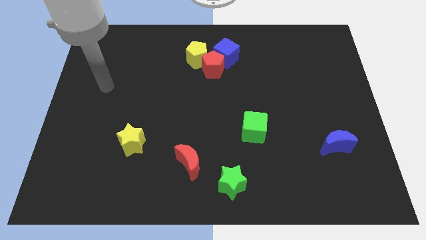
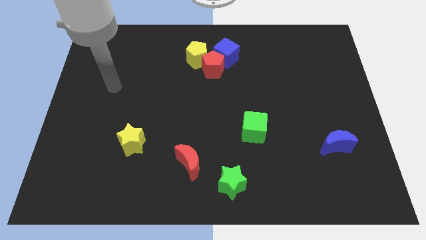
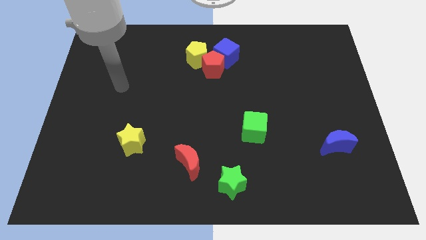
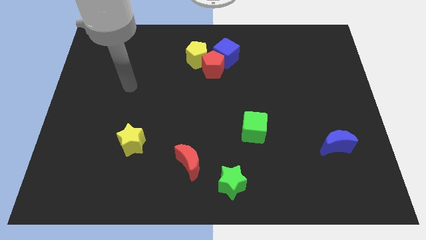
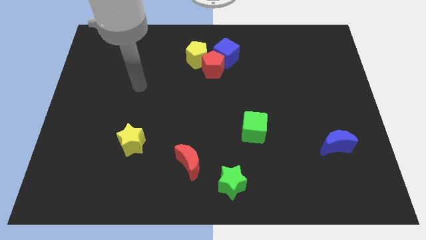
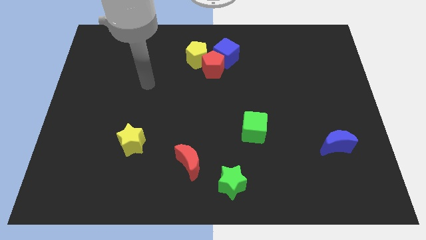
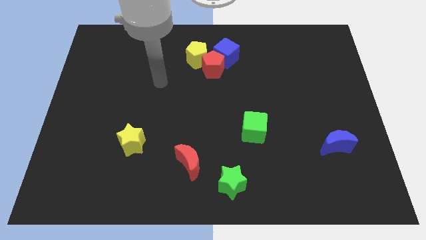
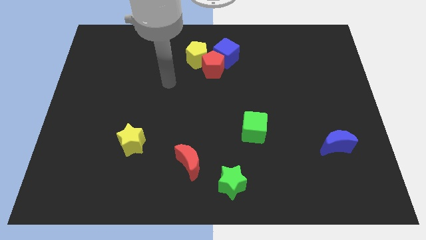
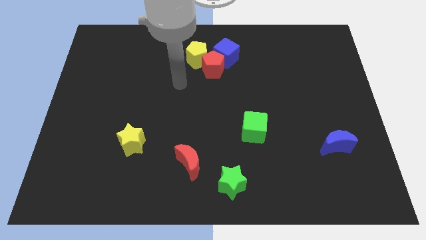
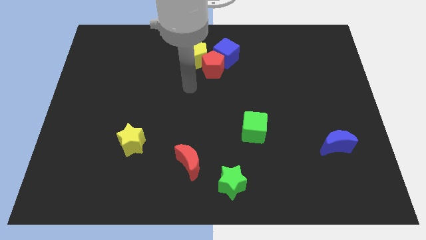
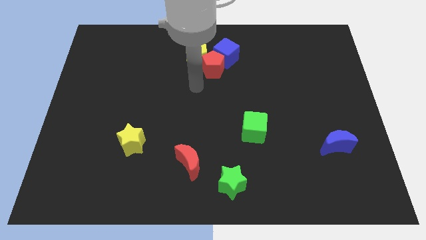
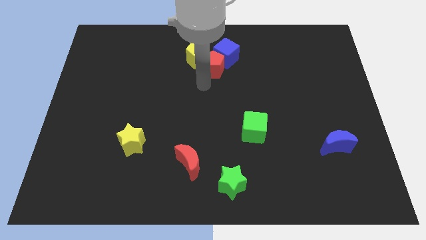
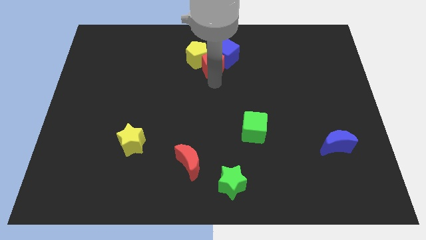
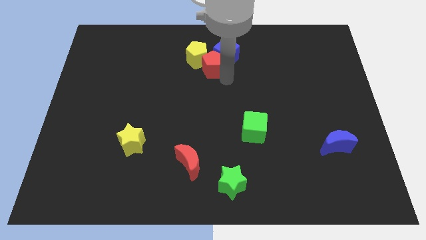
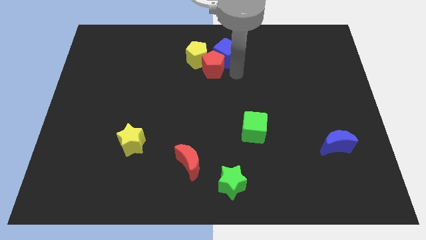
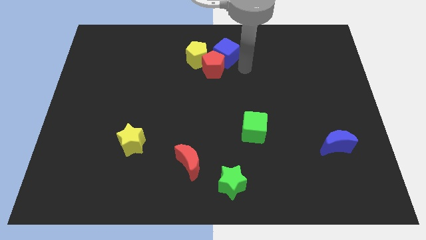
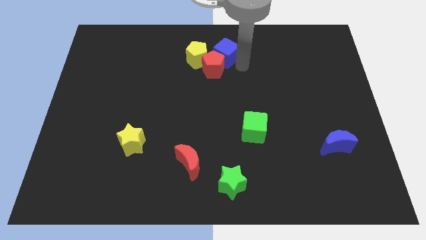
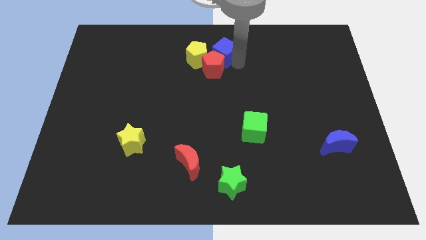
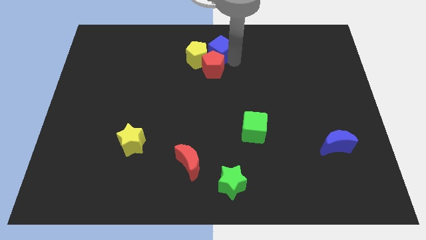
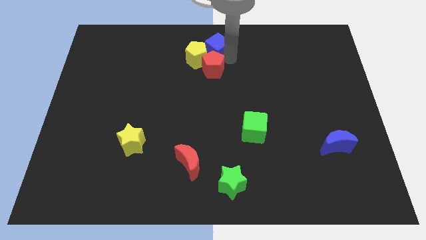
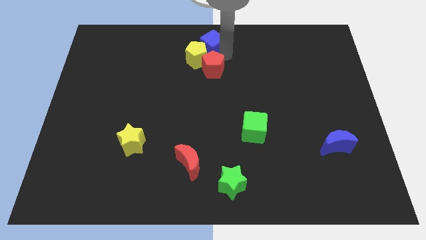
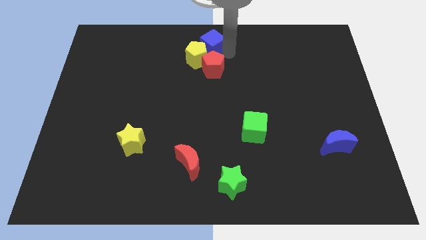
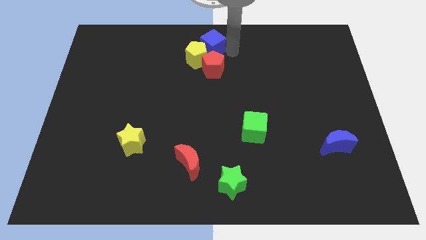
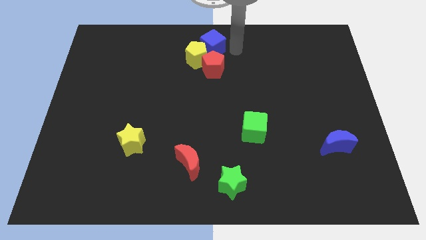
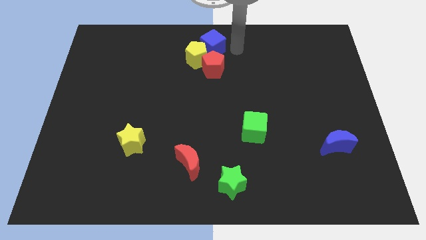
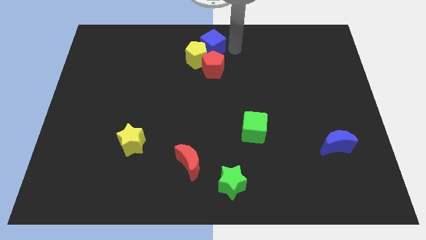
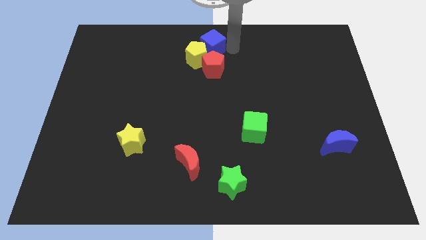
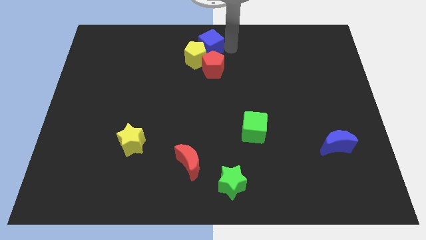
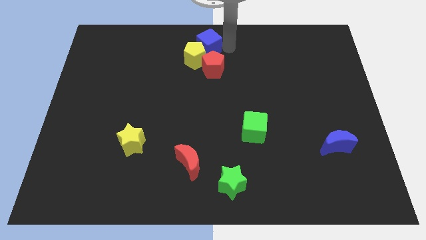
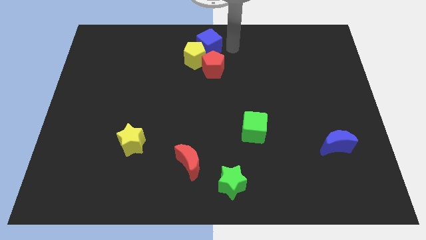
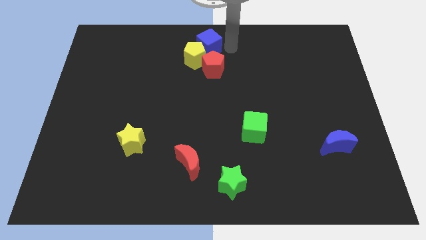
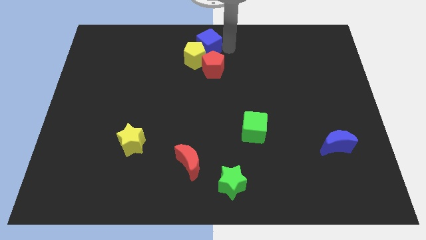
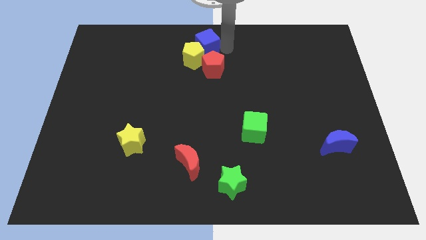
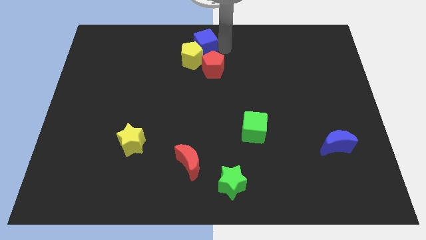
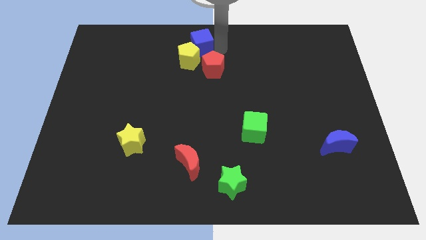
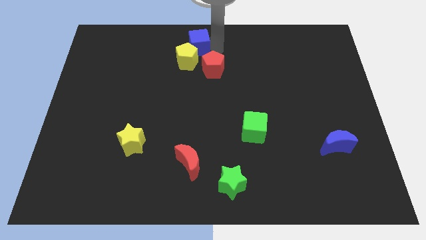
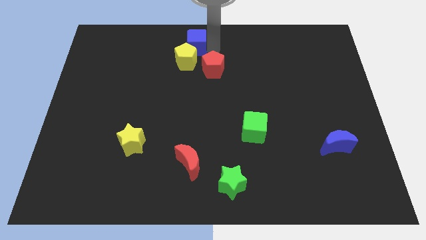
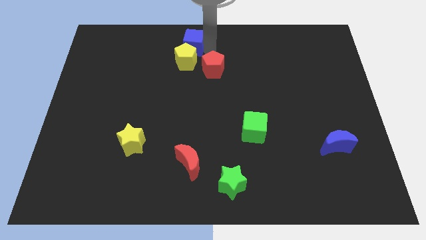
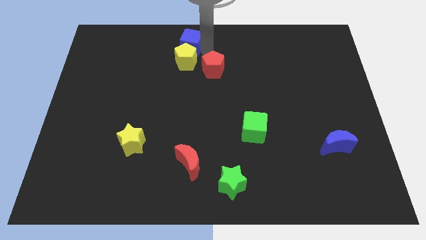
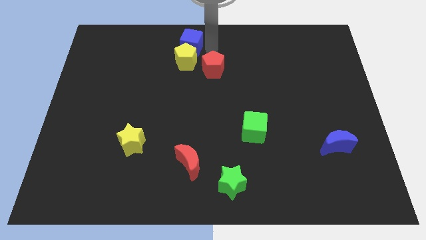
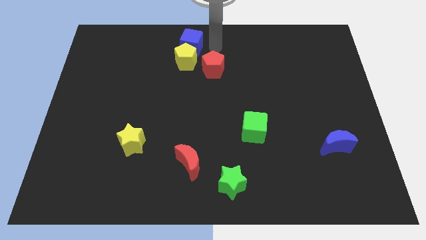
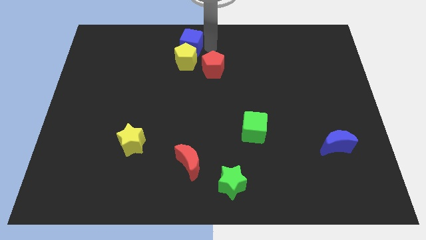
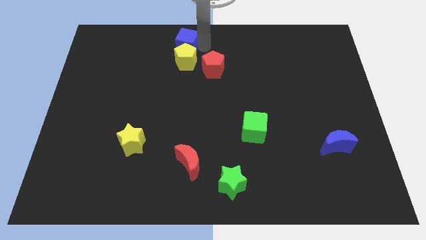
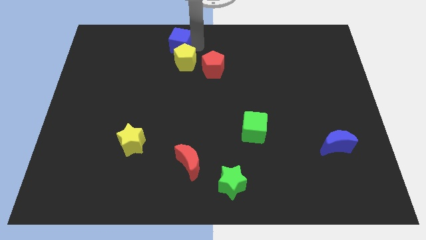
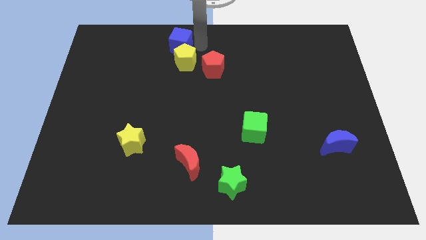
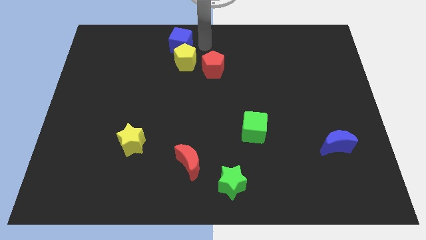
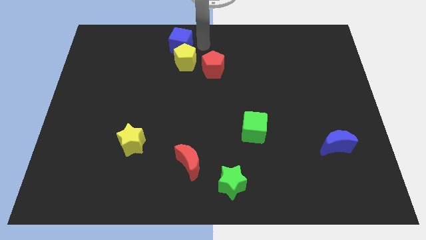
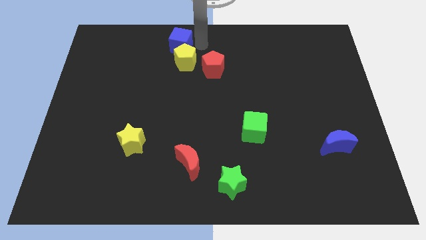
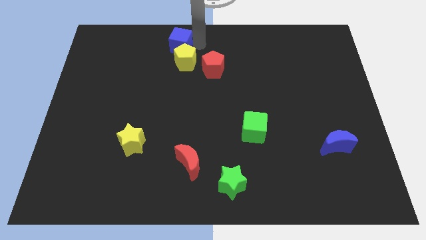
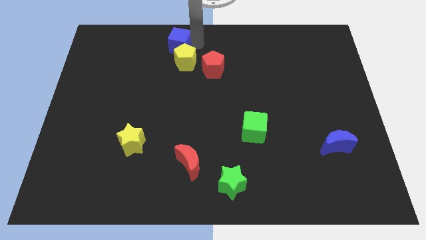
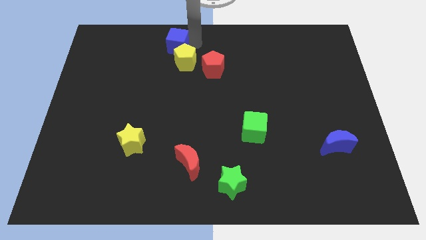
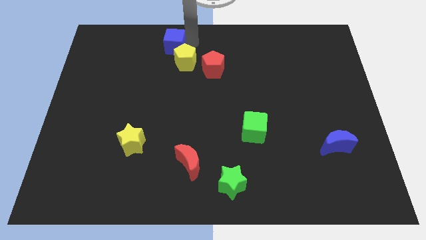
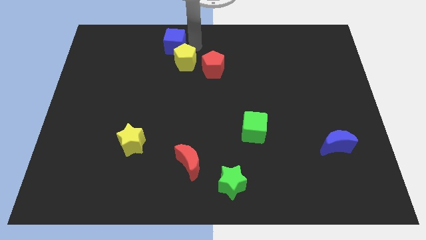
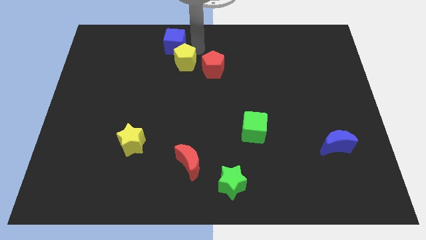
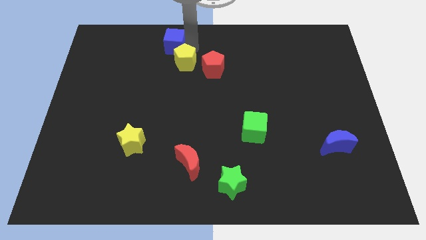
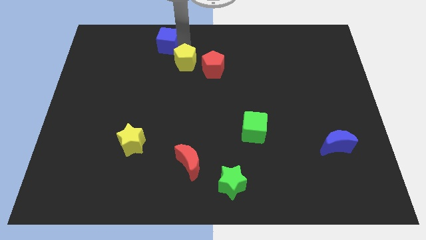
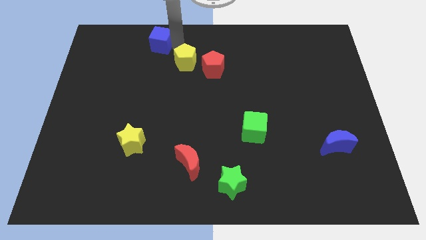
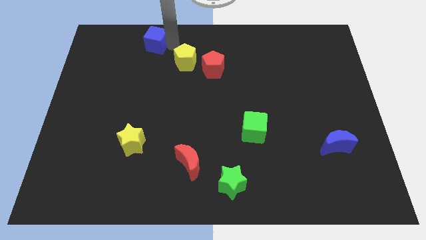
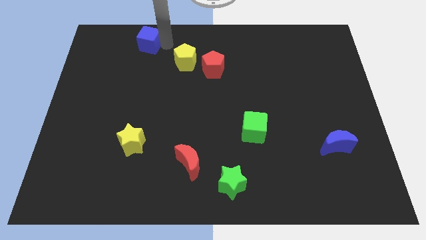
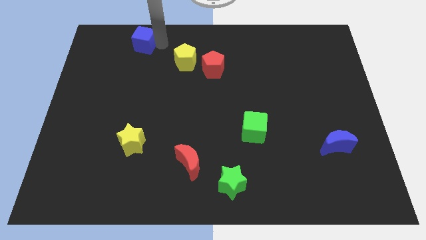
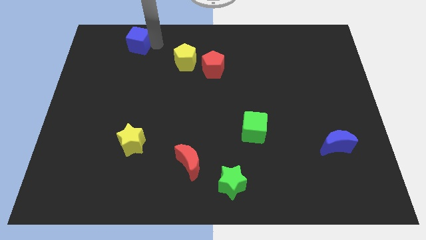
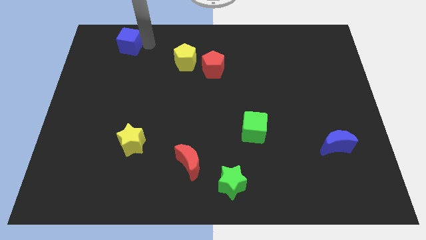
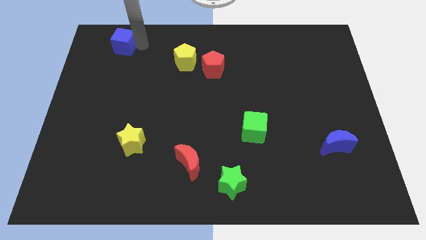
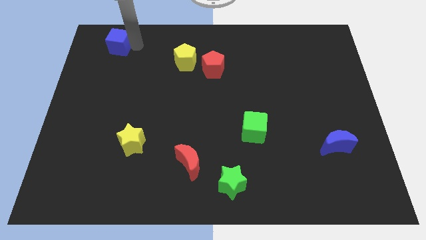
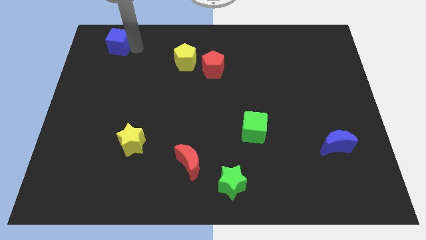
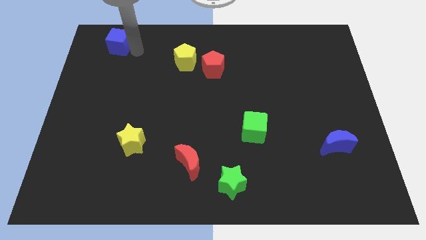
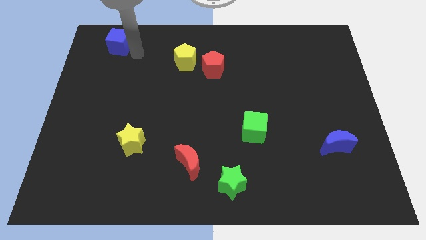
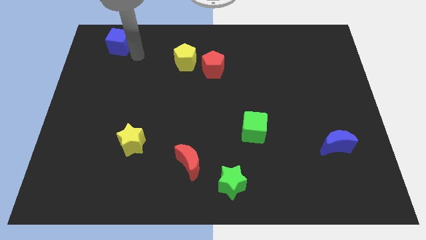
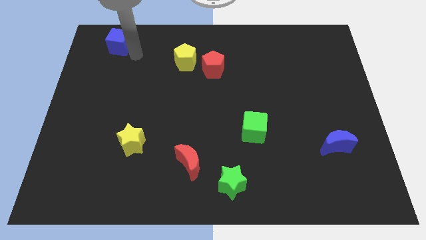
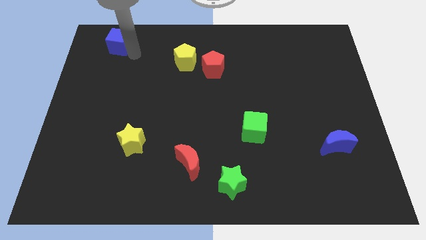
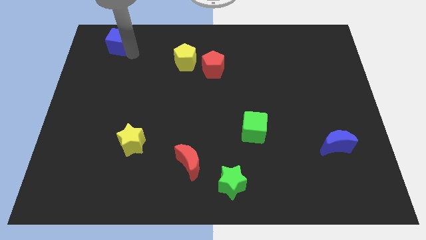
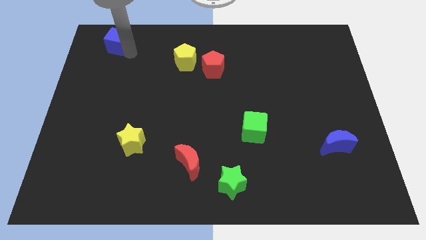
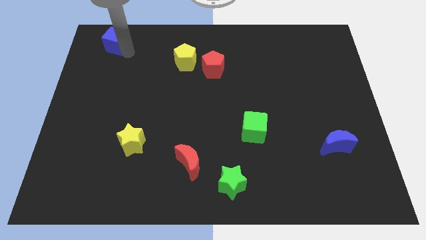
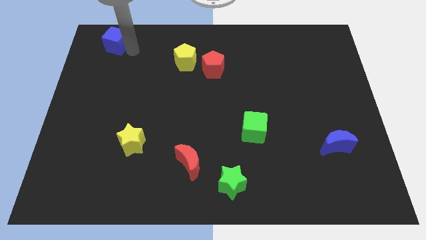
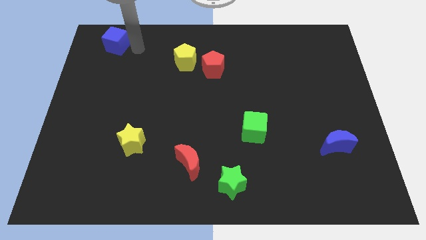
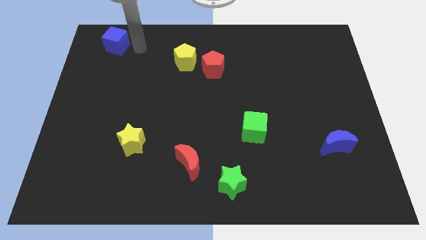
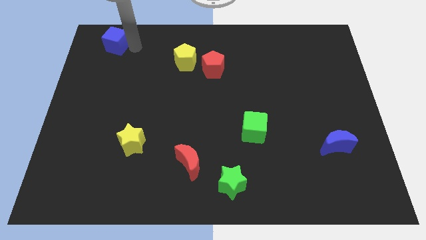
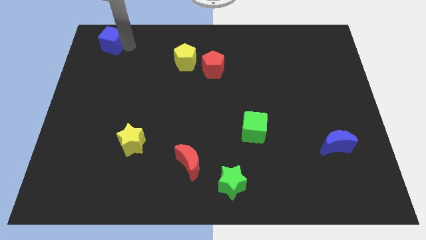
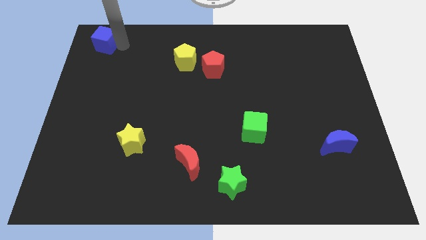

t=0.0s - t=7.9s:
move the blue cube to the top left corner
